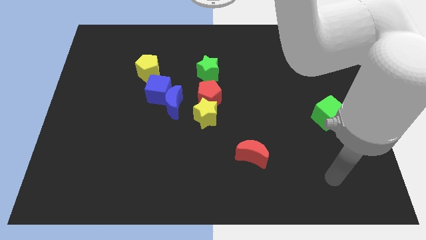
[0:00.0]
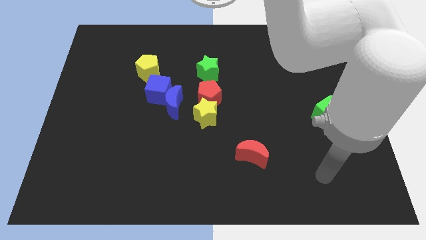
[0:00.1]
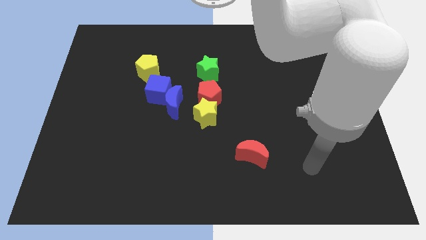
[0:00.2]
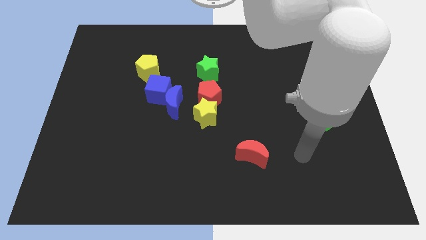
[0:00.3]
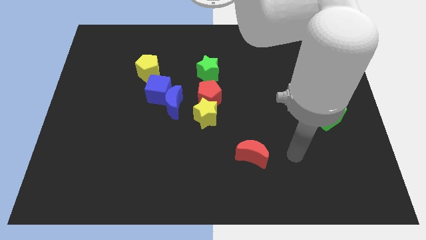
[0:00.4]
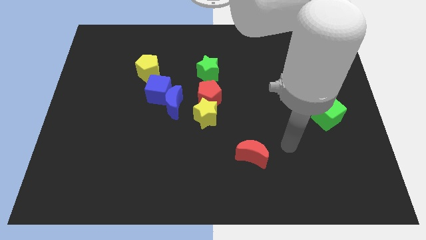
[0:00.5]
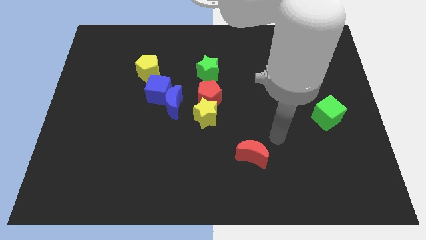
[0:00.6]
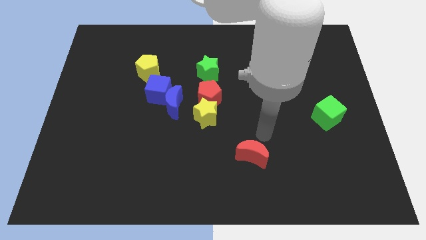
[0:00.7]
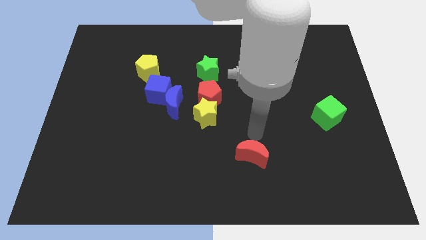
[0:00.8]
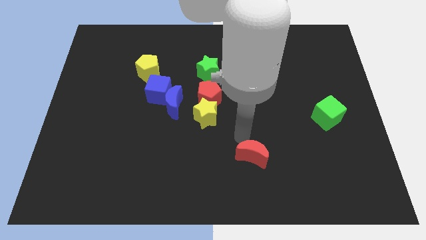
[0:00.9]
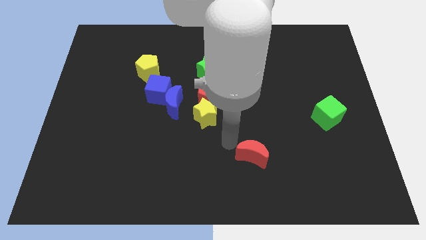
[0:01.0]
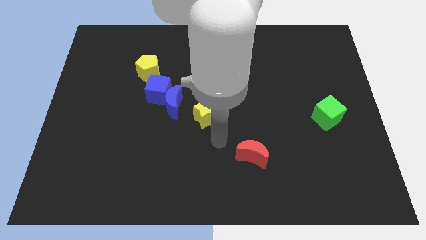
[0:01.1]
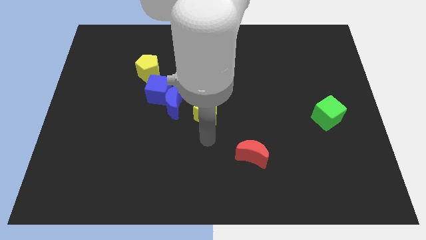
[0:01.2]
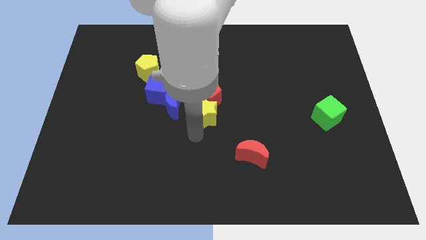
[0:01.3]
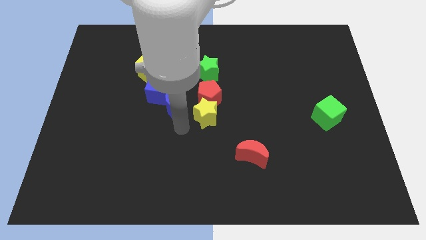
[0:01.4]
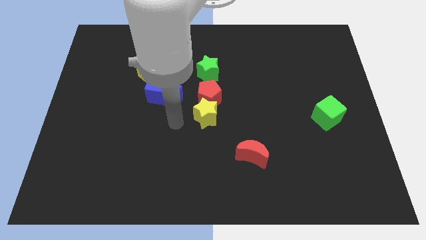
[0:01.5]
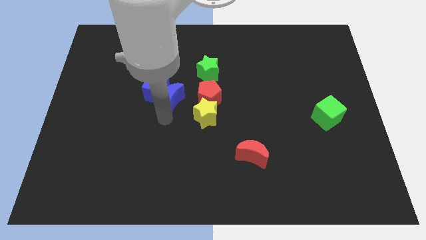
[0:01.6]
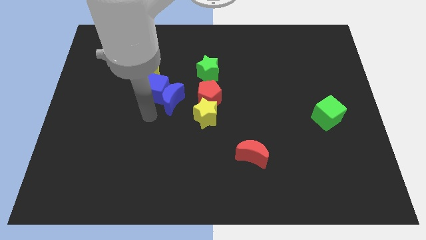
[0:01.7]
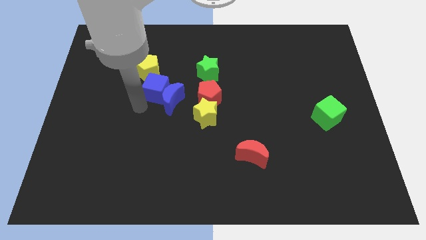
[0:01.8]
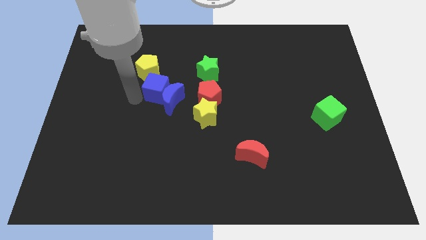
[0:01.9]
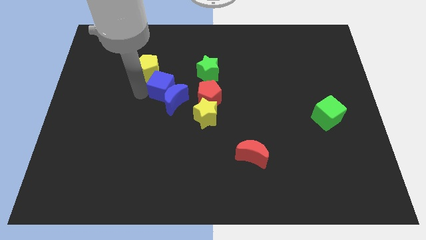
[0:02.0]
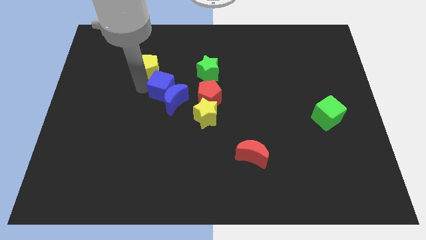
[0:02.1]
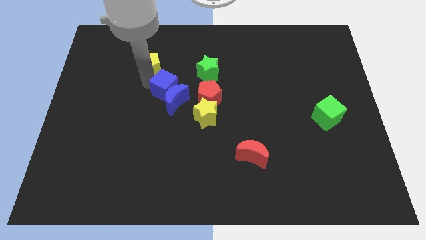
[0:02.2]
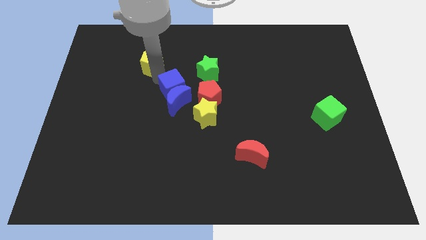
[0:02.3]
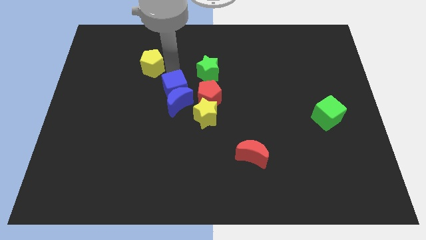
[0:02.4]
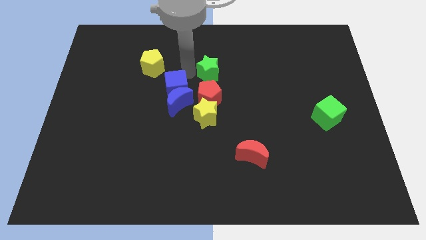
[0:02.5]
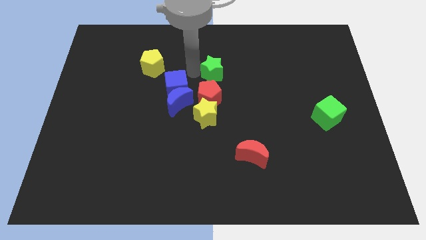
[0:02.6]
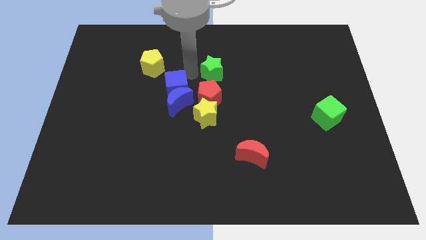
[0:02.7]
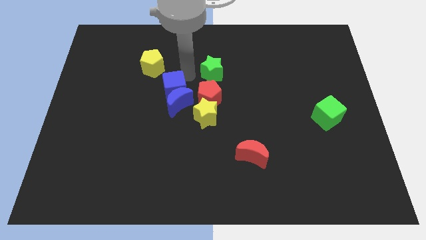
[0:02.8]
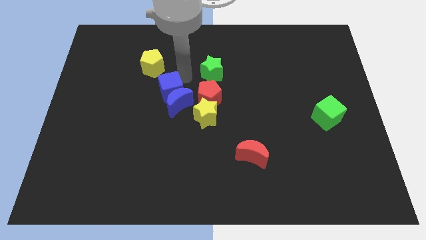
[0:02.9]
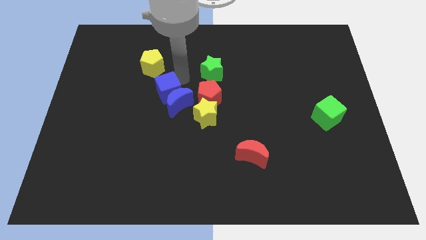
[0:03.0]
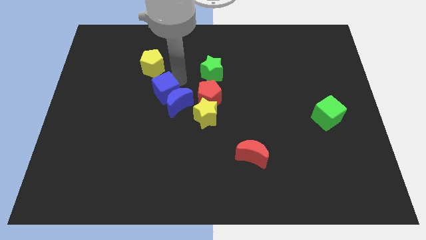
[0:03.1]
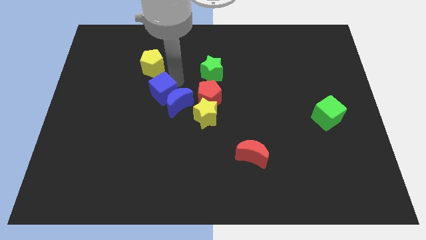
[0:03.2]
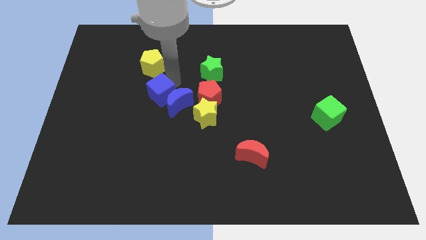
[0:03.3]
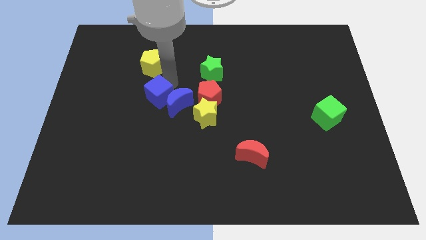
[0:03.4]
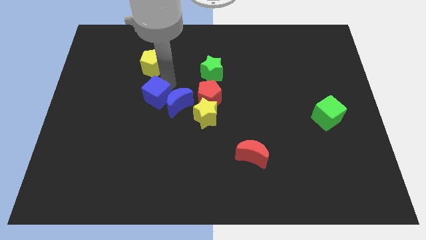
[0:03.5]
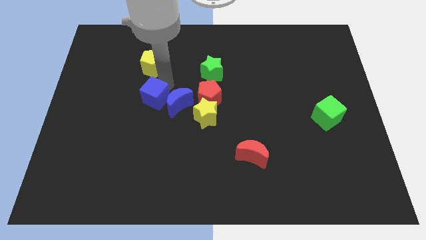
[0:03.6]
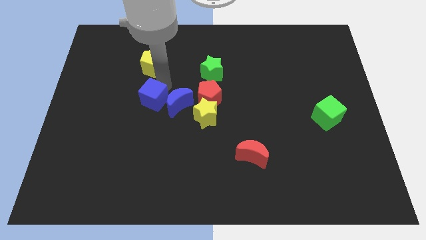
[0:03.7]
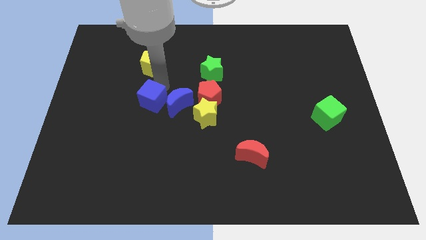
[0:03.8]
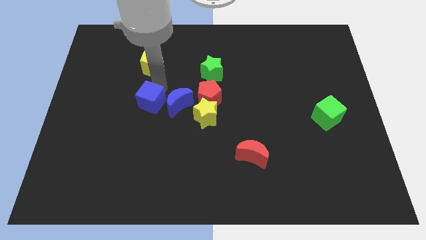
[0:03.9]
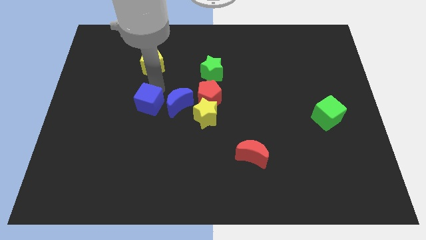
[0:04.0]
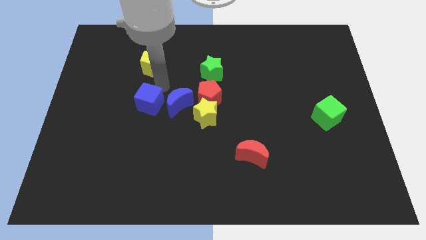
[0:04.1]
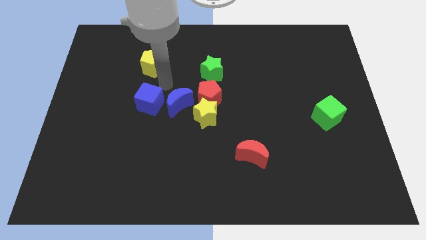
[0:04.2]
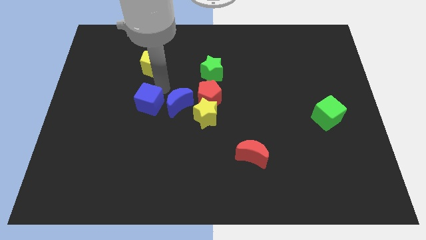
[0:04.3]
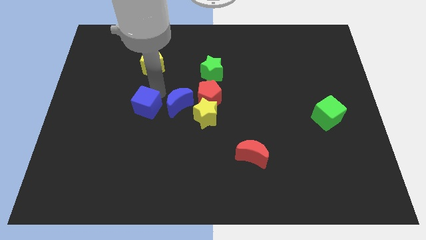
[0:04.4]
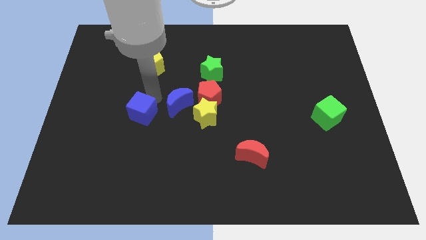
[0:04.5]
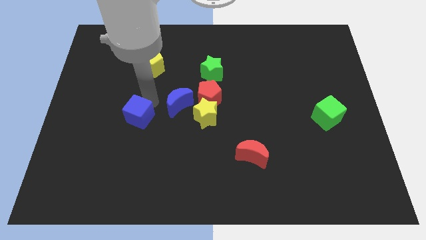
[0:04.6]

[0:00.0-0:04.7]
separate the blue cube from the blue moon and yellow pentagon

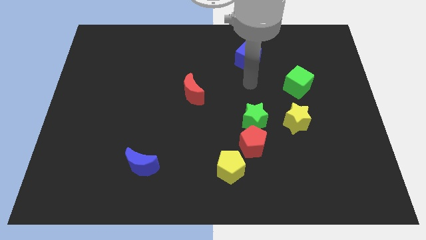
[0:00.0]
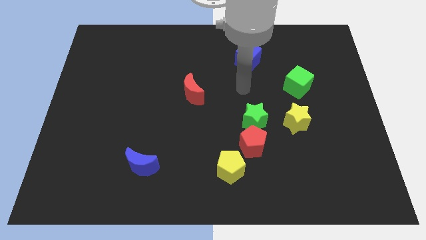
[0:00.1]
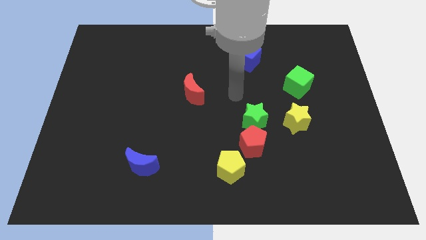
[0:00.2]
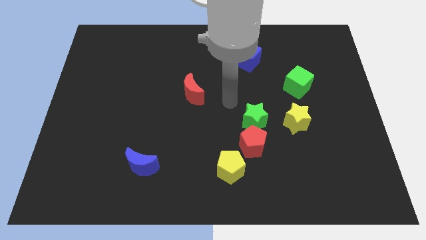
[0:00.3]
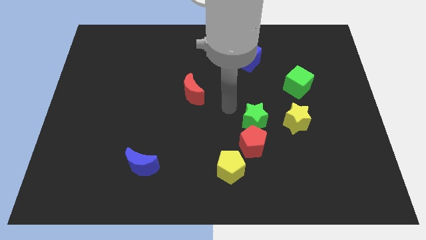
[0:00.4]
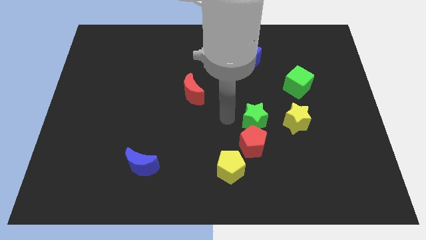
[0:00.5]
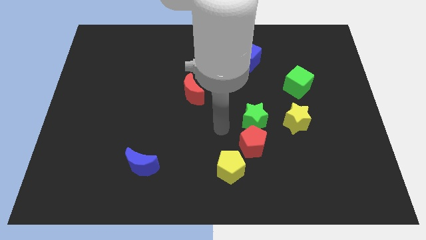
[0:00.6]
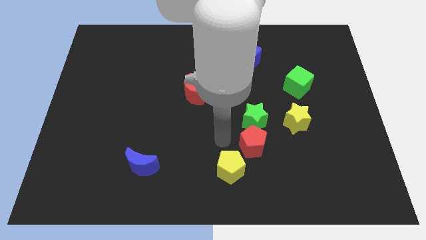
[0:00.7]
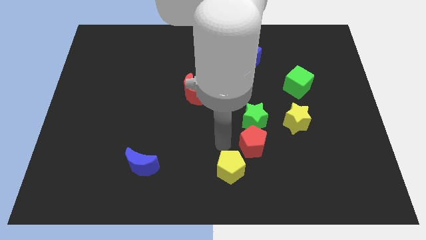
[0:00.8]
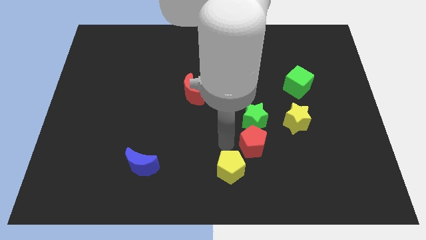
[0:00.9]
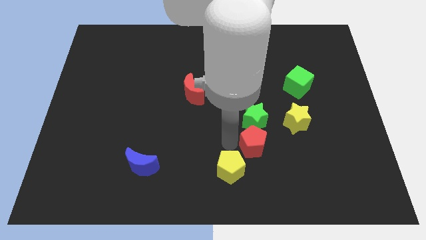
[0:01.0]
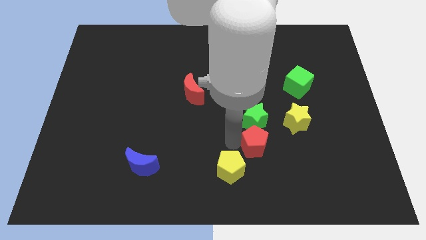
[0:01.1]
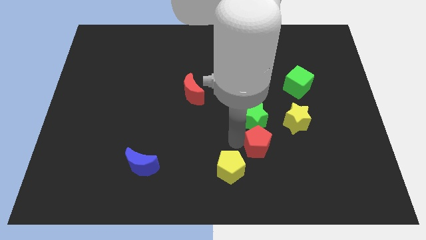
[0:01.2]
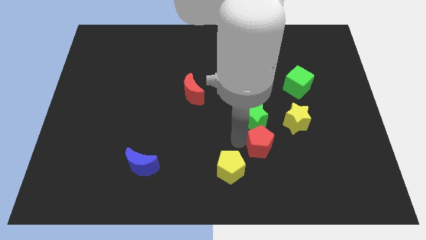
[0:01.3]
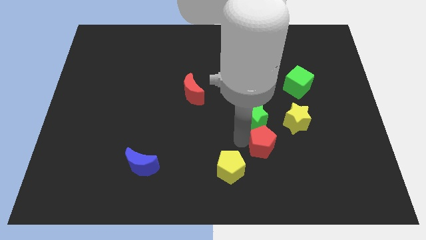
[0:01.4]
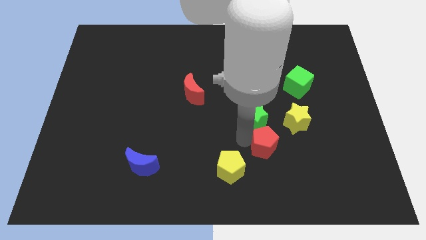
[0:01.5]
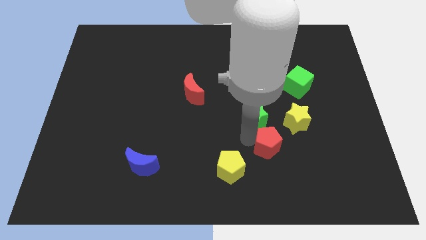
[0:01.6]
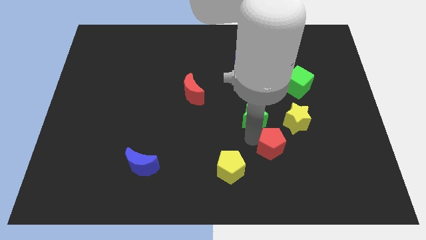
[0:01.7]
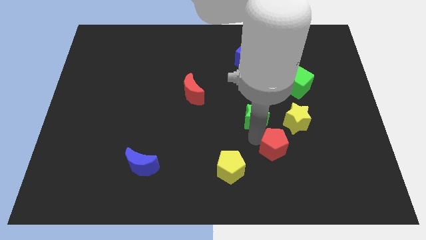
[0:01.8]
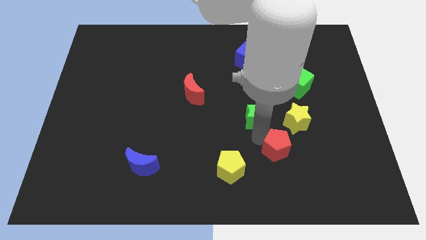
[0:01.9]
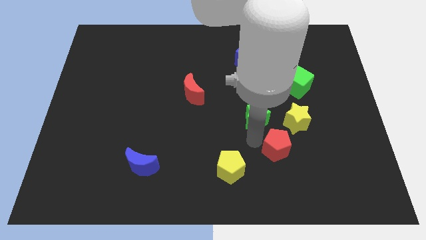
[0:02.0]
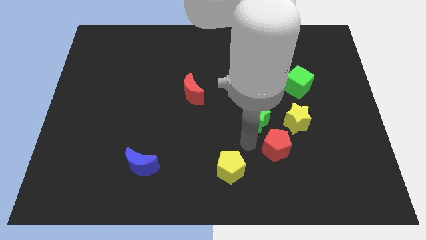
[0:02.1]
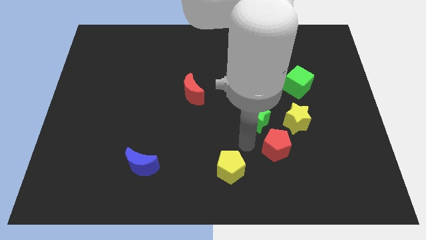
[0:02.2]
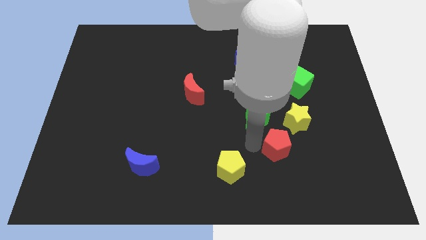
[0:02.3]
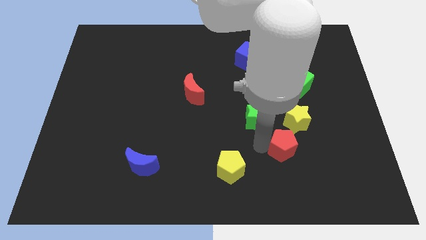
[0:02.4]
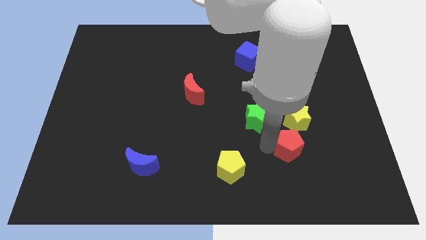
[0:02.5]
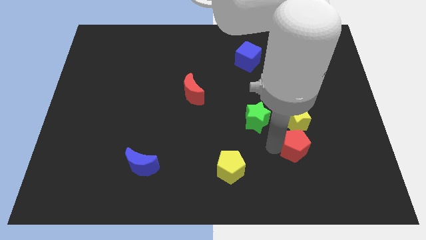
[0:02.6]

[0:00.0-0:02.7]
pull the red pentagon apart from the green star and yellow pentagon

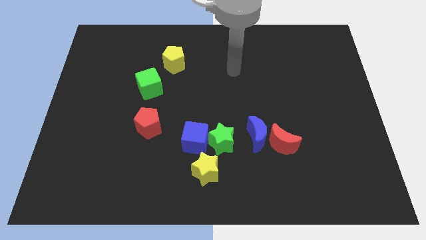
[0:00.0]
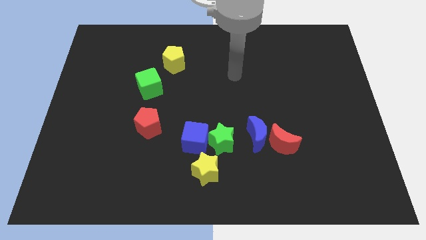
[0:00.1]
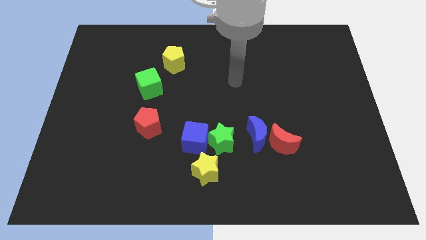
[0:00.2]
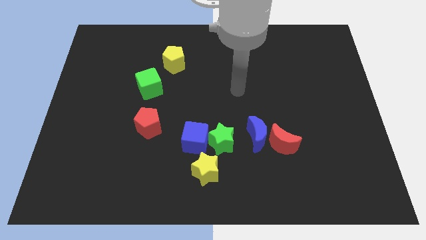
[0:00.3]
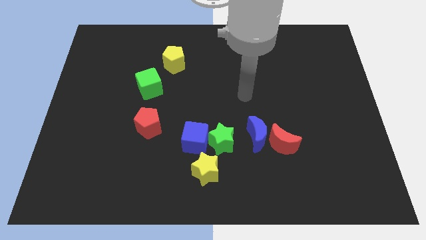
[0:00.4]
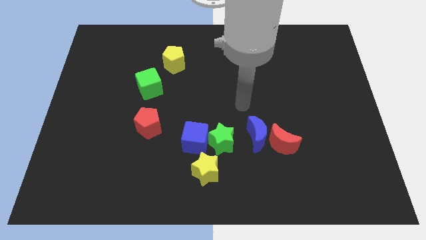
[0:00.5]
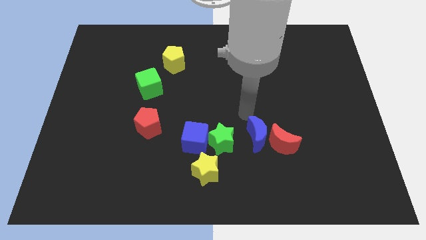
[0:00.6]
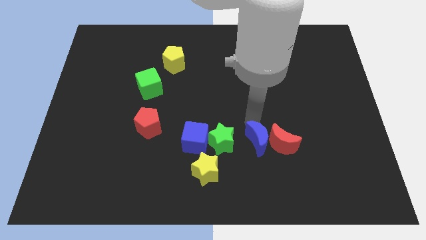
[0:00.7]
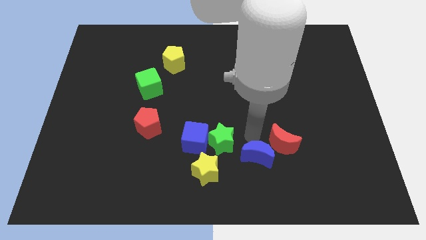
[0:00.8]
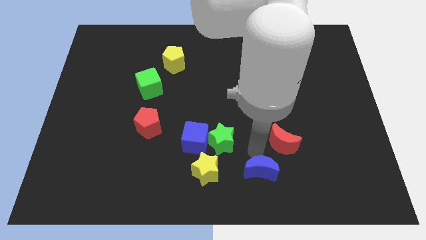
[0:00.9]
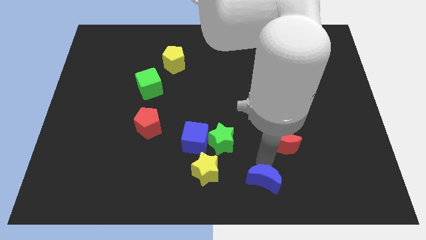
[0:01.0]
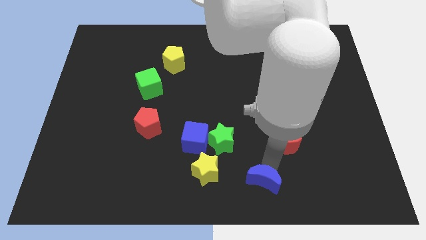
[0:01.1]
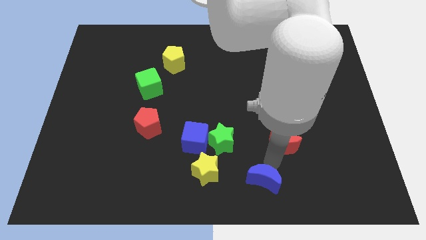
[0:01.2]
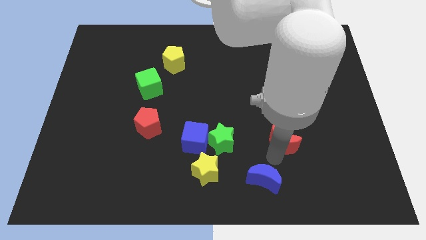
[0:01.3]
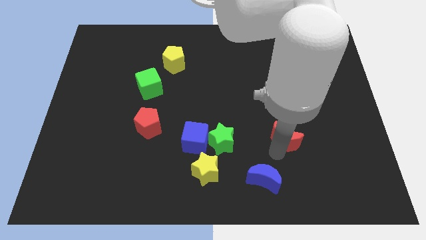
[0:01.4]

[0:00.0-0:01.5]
move the red moon away from the blue moon

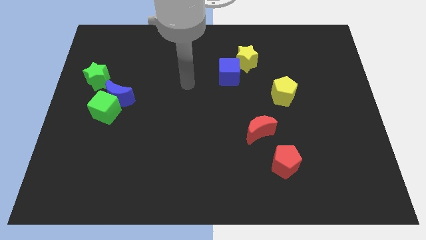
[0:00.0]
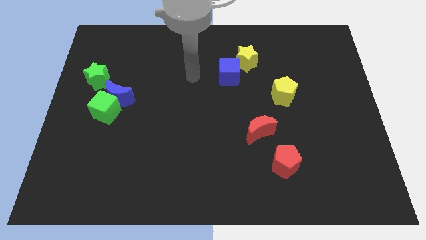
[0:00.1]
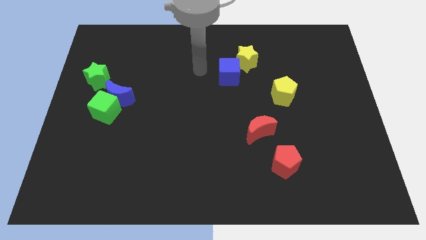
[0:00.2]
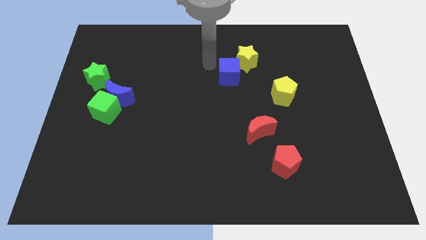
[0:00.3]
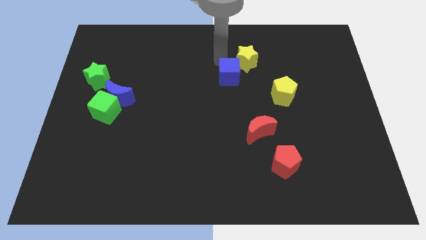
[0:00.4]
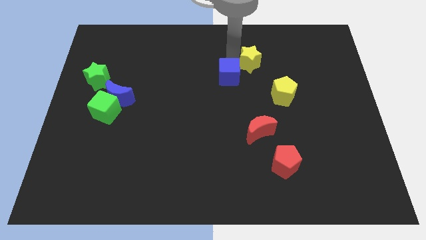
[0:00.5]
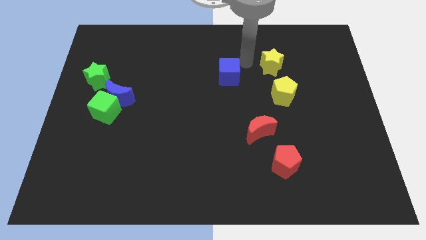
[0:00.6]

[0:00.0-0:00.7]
move the blue cube away from the yellow star
